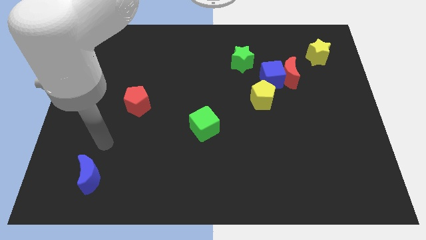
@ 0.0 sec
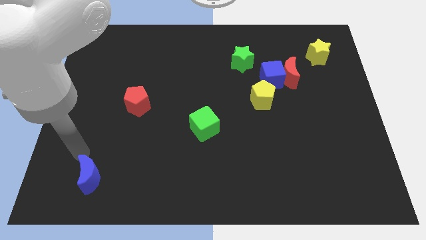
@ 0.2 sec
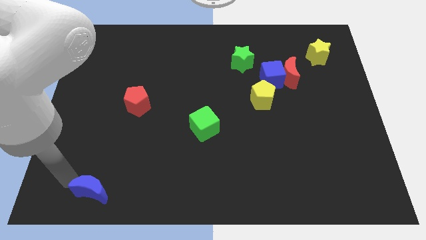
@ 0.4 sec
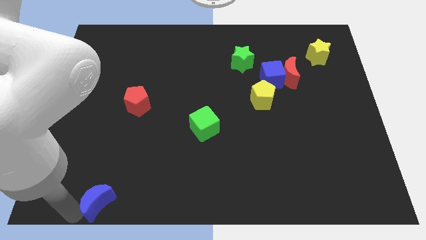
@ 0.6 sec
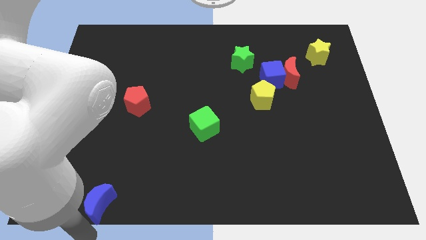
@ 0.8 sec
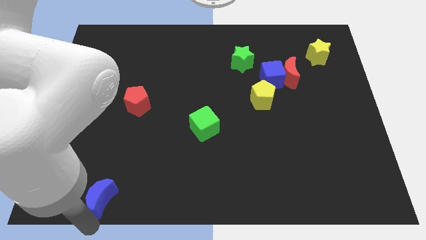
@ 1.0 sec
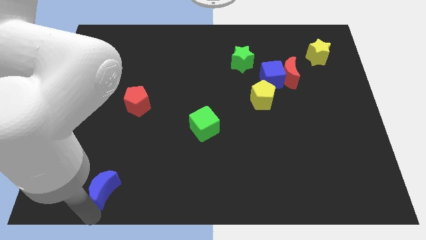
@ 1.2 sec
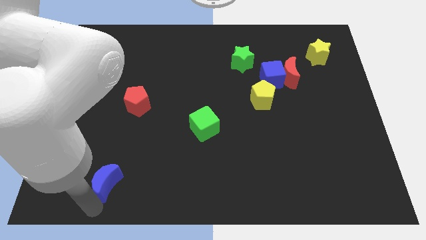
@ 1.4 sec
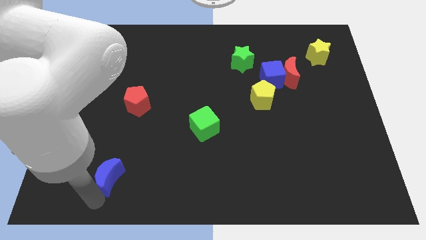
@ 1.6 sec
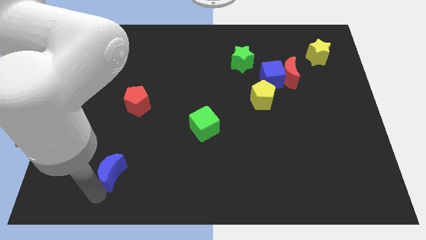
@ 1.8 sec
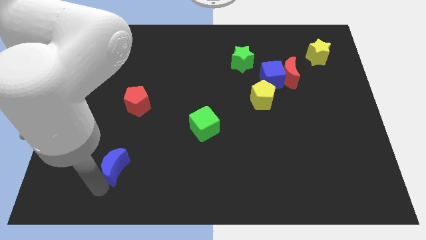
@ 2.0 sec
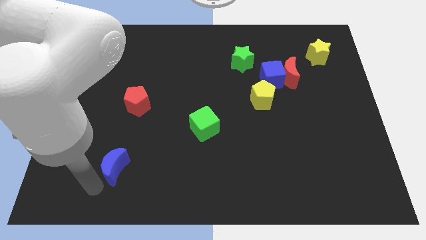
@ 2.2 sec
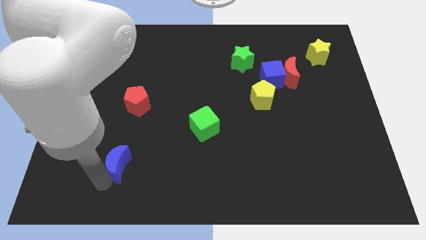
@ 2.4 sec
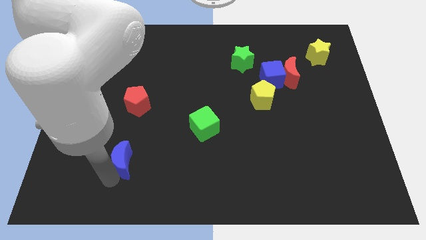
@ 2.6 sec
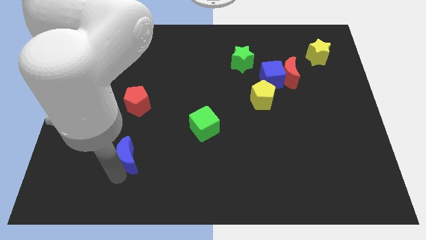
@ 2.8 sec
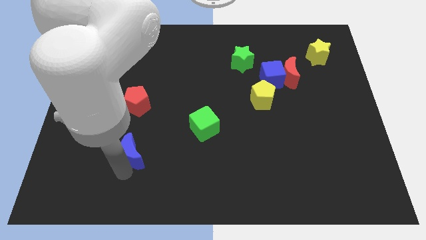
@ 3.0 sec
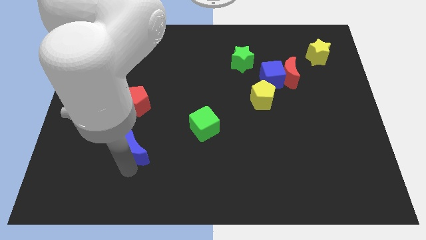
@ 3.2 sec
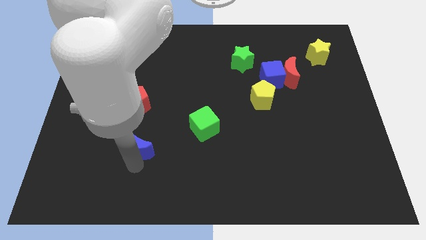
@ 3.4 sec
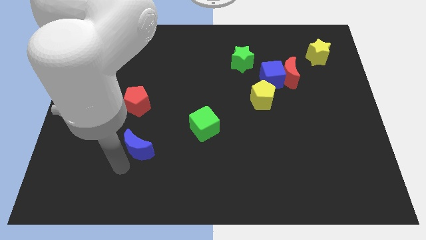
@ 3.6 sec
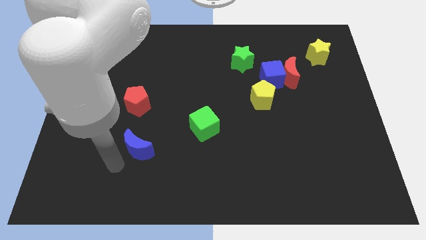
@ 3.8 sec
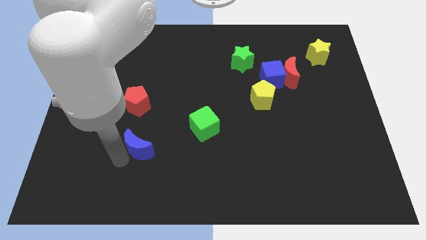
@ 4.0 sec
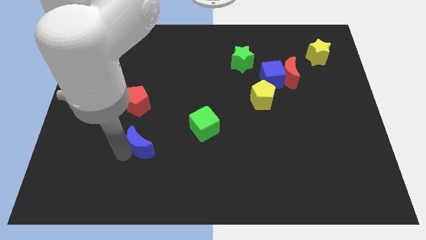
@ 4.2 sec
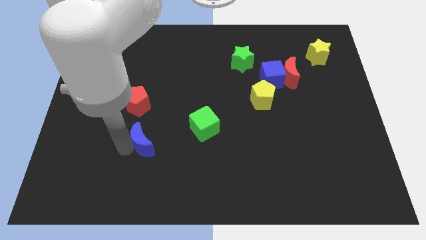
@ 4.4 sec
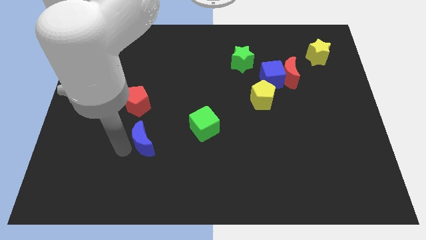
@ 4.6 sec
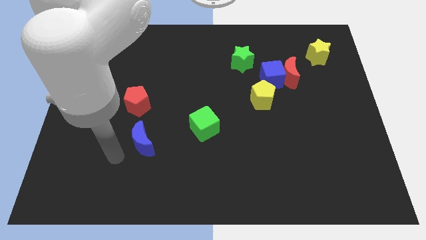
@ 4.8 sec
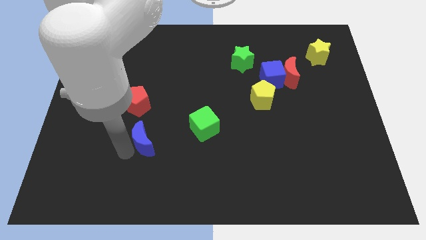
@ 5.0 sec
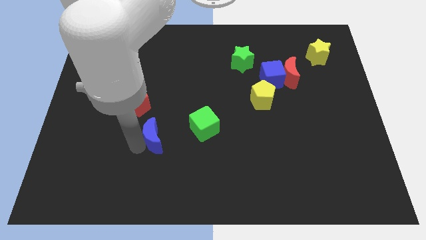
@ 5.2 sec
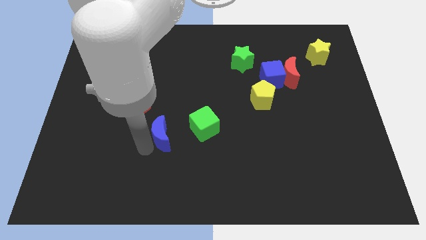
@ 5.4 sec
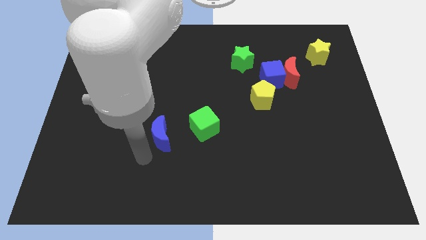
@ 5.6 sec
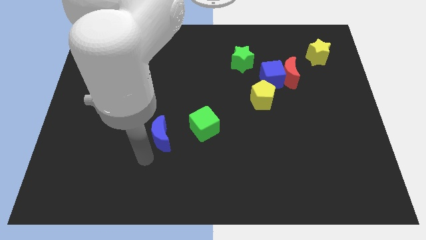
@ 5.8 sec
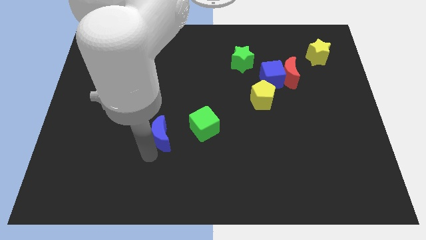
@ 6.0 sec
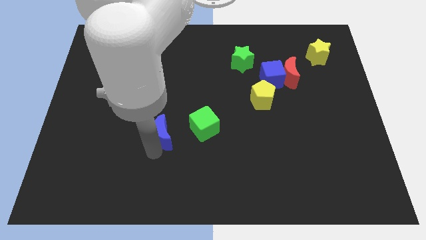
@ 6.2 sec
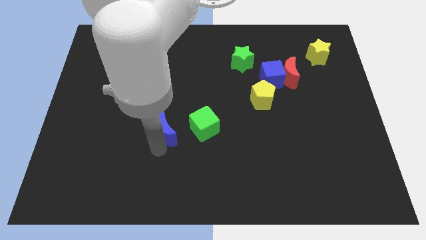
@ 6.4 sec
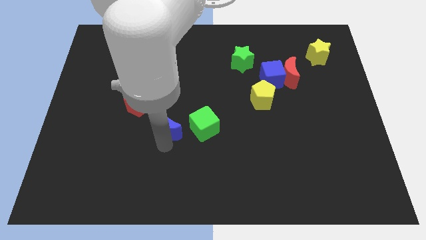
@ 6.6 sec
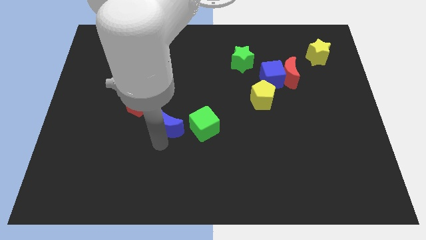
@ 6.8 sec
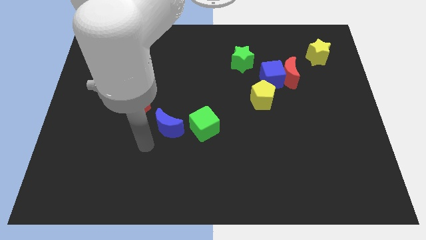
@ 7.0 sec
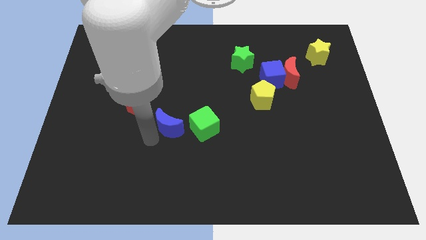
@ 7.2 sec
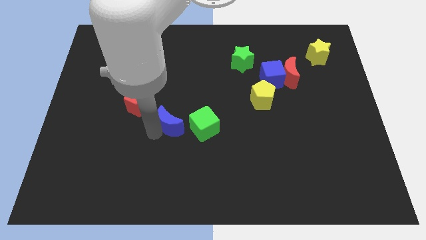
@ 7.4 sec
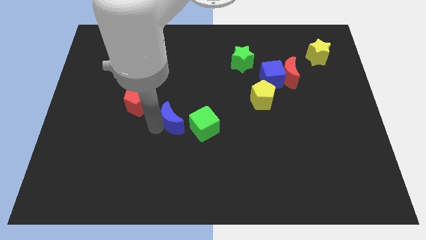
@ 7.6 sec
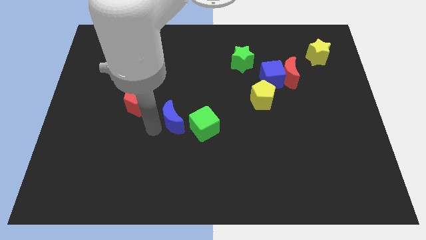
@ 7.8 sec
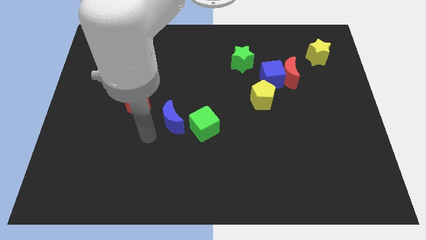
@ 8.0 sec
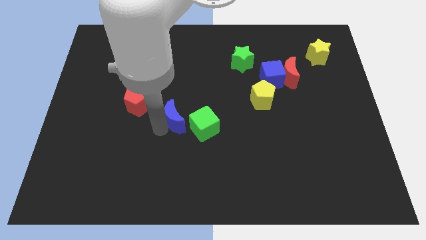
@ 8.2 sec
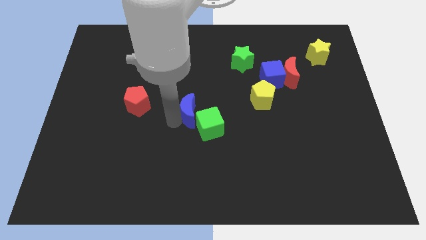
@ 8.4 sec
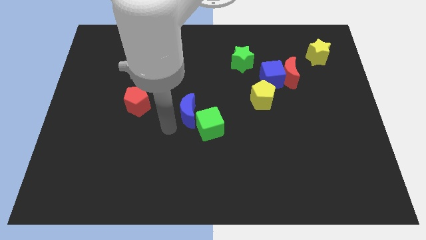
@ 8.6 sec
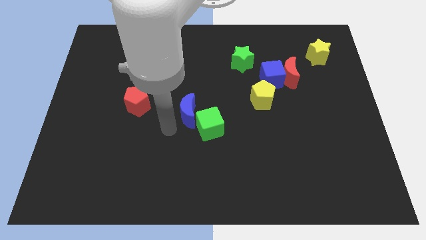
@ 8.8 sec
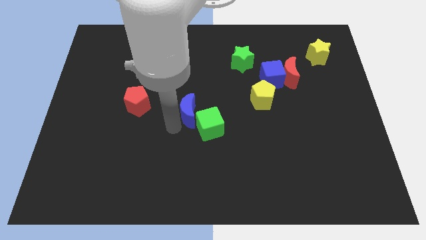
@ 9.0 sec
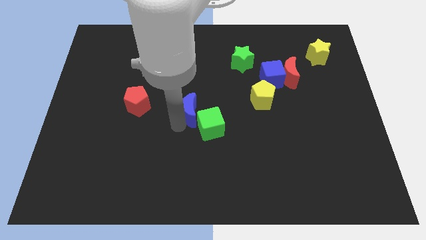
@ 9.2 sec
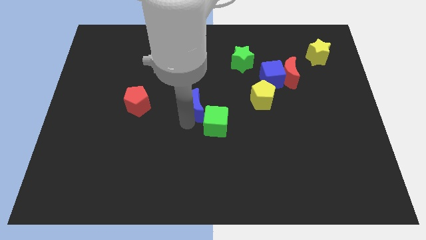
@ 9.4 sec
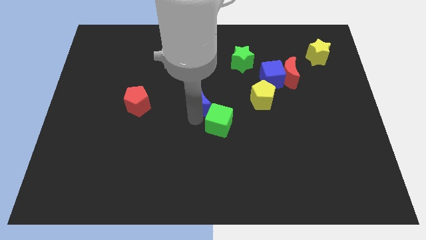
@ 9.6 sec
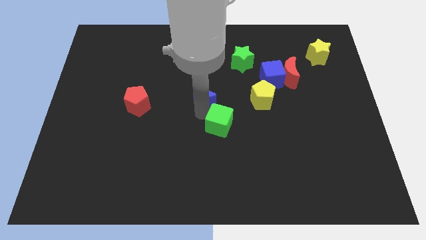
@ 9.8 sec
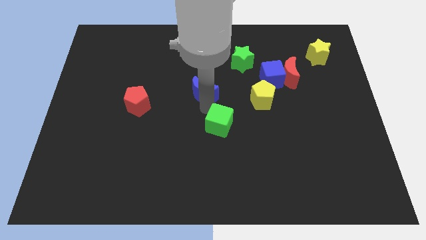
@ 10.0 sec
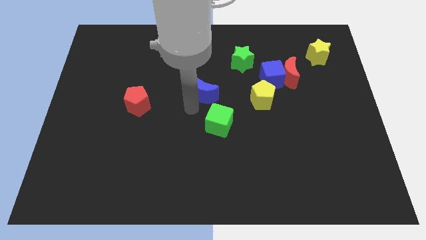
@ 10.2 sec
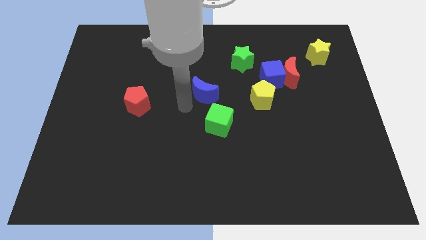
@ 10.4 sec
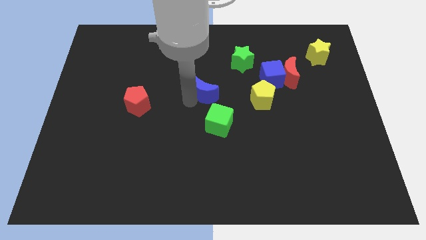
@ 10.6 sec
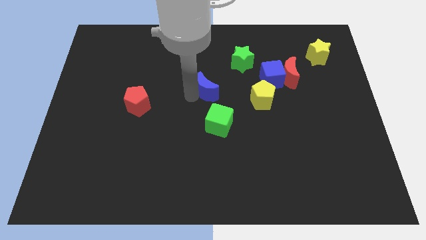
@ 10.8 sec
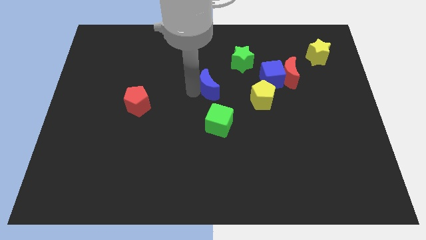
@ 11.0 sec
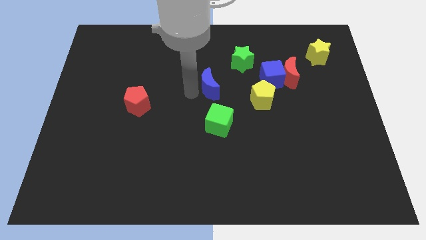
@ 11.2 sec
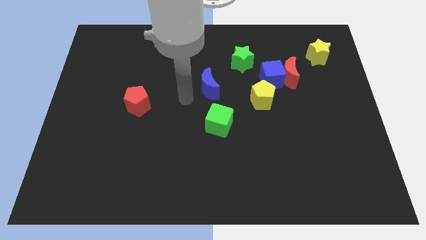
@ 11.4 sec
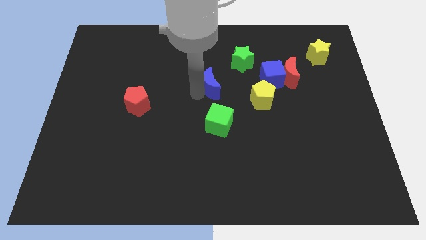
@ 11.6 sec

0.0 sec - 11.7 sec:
slide the blue moon left of the blue cube

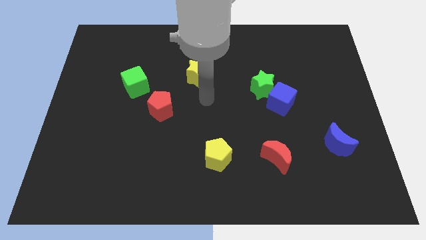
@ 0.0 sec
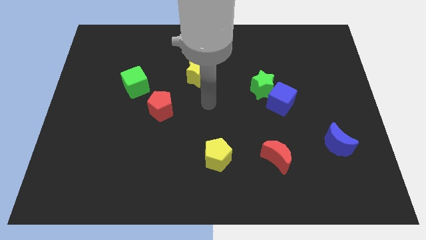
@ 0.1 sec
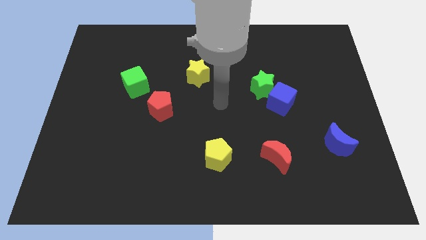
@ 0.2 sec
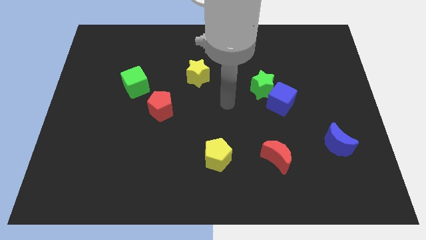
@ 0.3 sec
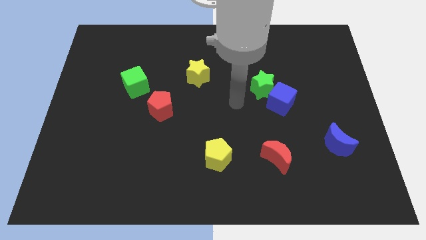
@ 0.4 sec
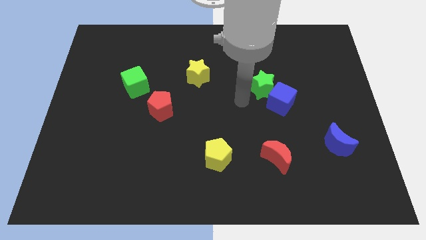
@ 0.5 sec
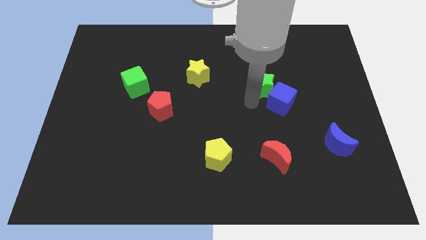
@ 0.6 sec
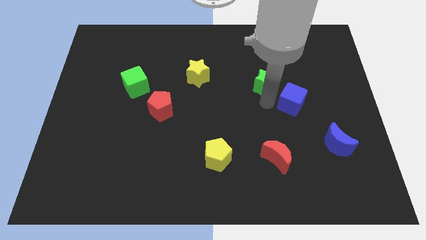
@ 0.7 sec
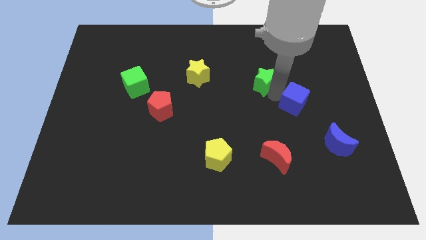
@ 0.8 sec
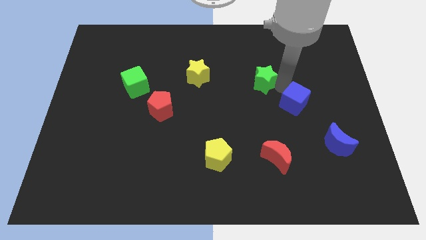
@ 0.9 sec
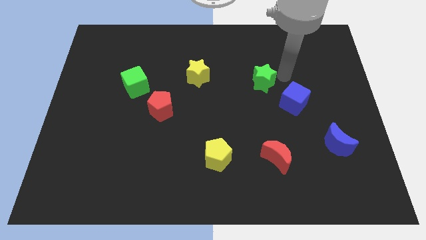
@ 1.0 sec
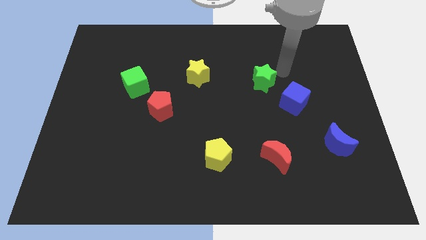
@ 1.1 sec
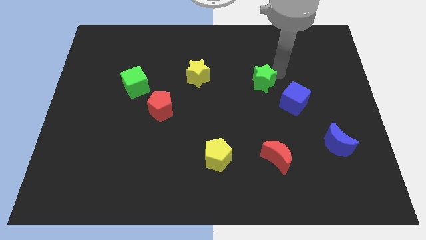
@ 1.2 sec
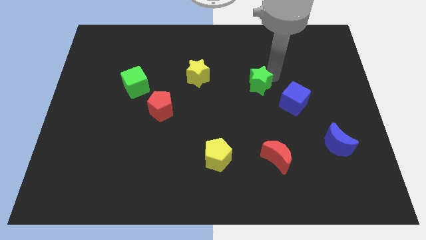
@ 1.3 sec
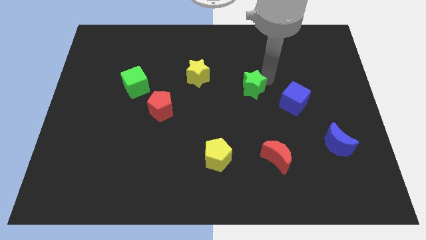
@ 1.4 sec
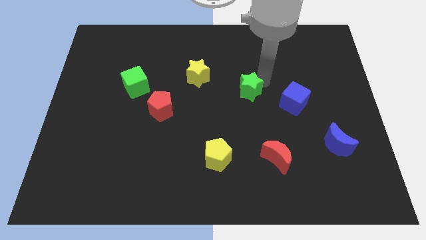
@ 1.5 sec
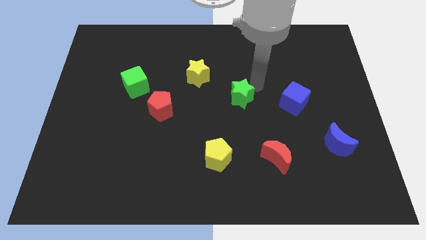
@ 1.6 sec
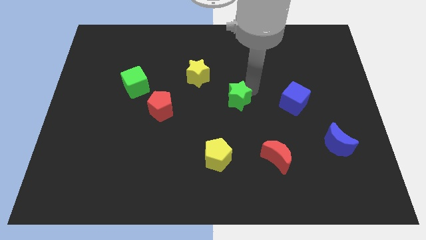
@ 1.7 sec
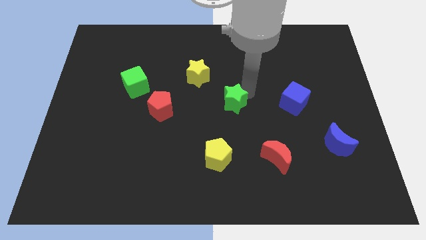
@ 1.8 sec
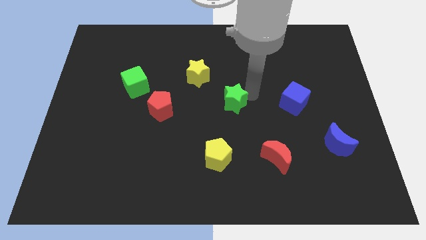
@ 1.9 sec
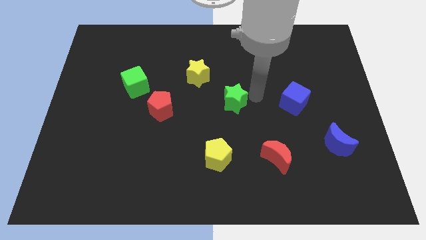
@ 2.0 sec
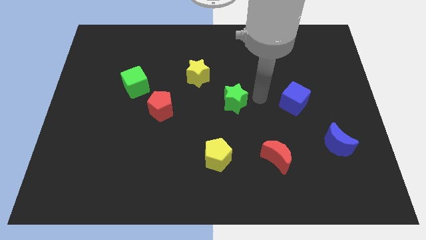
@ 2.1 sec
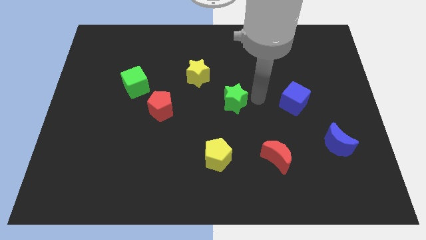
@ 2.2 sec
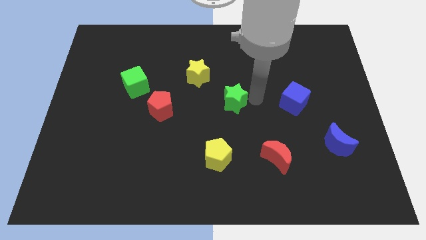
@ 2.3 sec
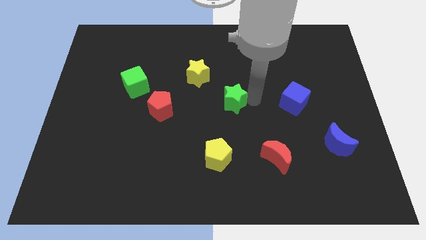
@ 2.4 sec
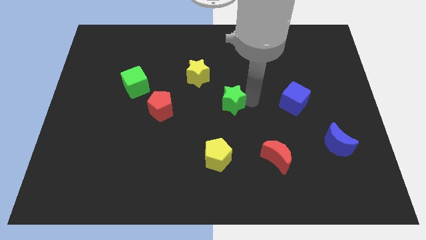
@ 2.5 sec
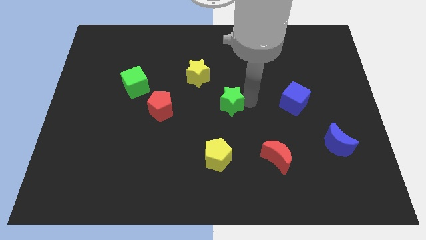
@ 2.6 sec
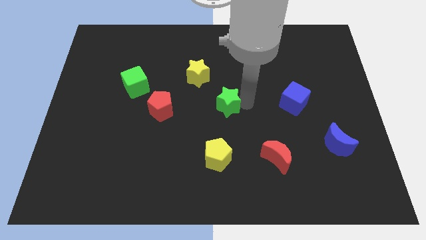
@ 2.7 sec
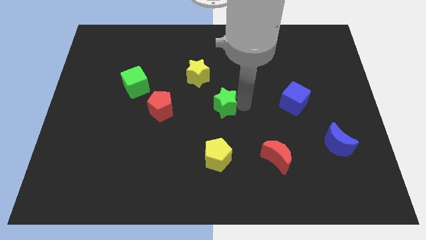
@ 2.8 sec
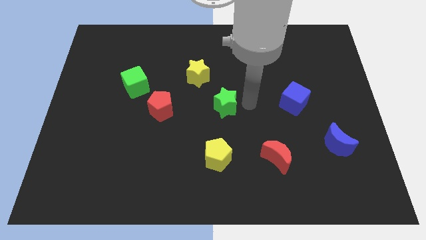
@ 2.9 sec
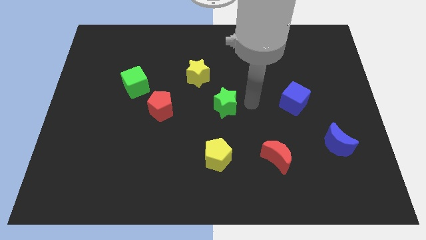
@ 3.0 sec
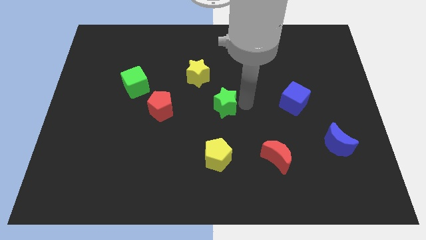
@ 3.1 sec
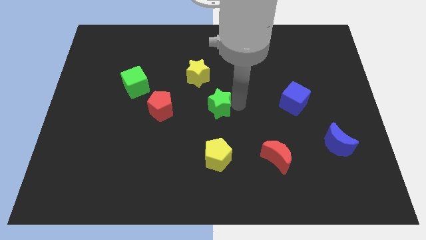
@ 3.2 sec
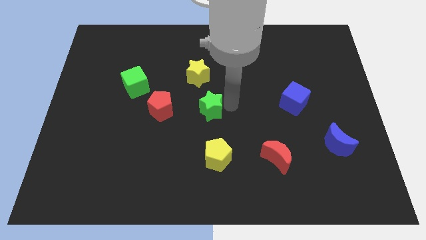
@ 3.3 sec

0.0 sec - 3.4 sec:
move the green star to the bottom of the yellow star
